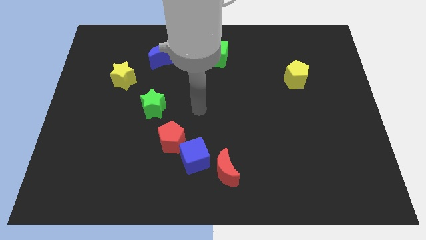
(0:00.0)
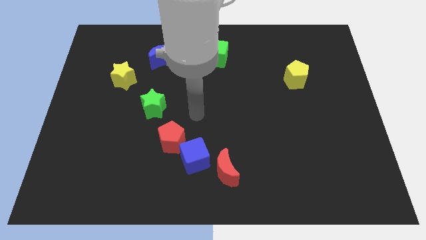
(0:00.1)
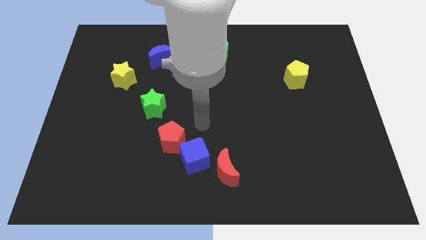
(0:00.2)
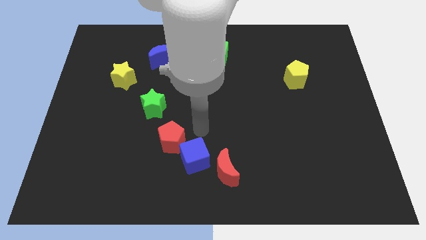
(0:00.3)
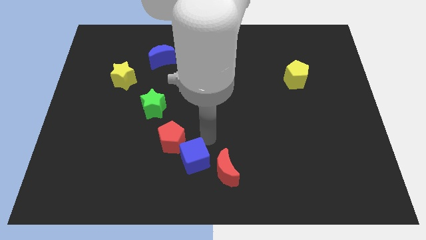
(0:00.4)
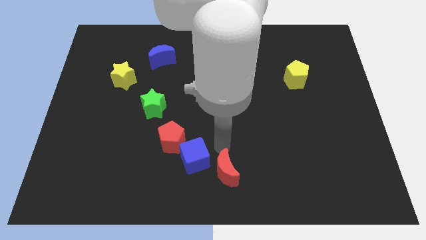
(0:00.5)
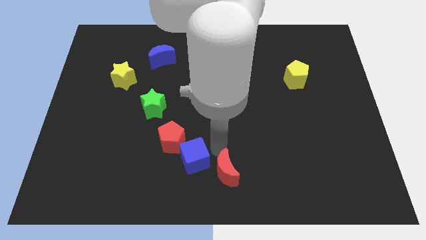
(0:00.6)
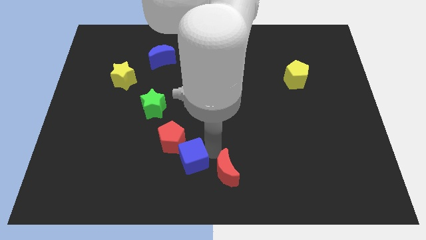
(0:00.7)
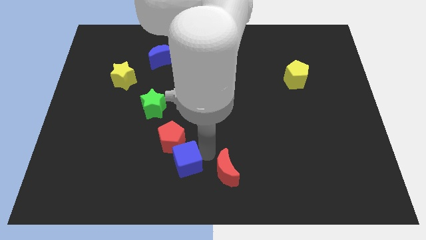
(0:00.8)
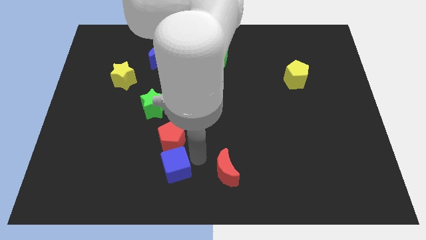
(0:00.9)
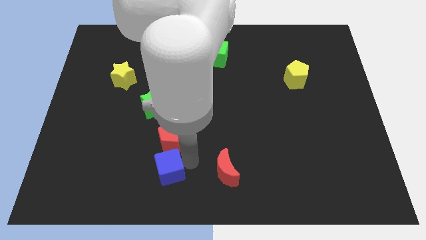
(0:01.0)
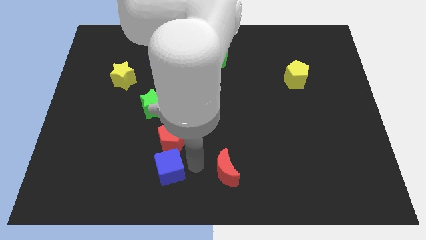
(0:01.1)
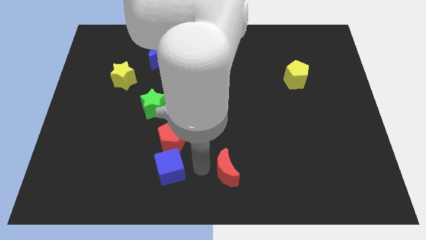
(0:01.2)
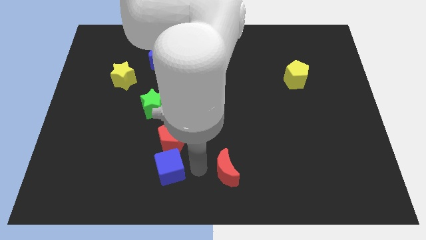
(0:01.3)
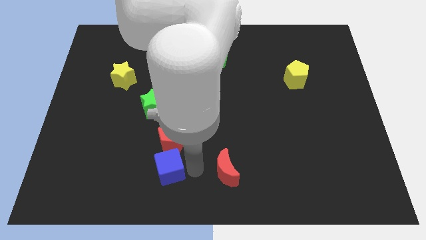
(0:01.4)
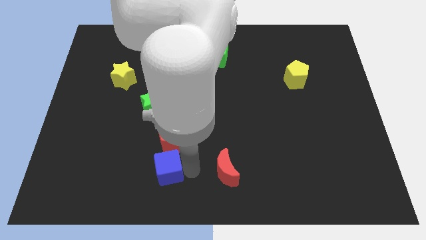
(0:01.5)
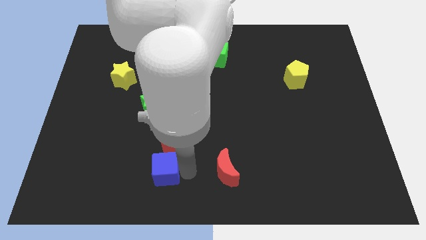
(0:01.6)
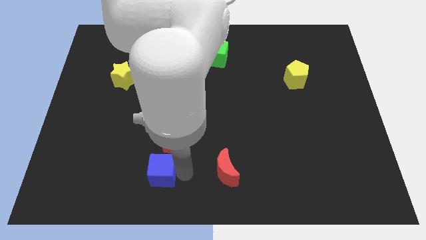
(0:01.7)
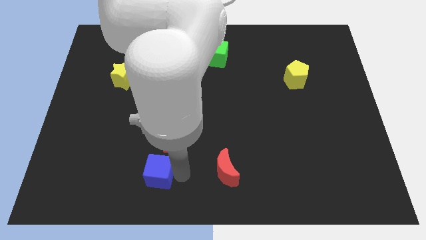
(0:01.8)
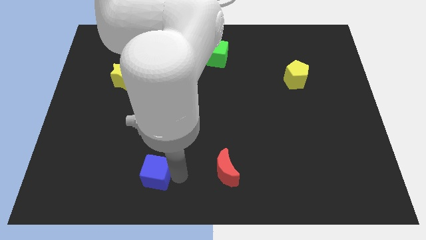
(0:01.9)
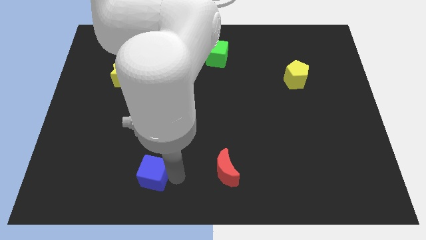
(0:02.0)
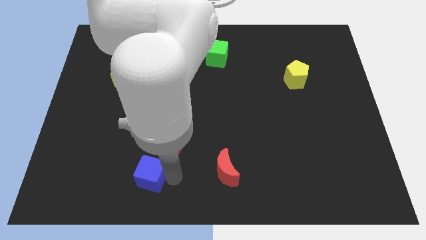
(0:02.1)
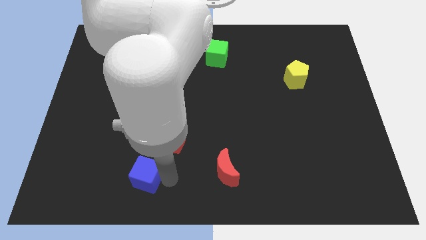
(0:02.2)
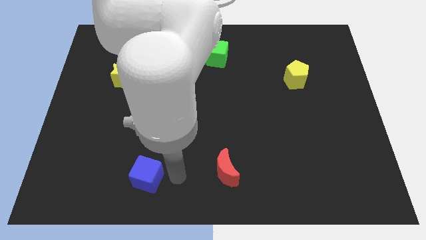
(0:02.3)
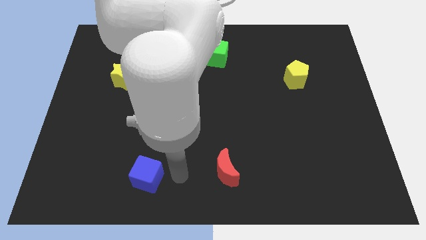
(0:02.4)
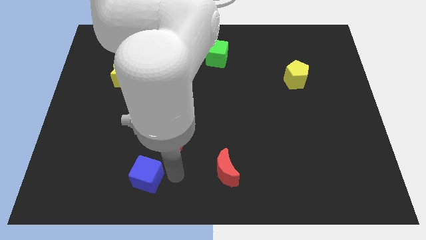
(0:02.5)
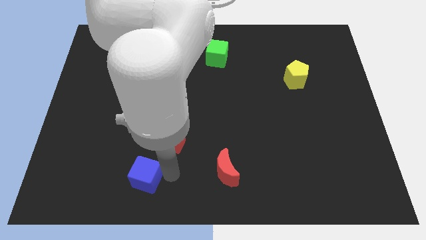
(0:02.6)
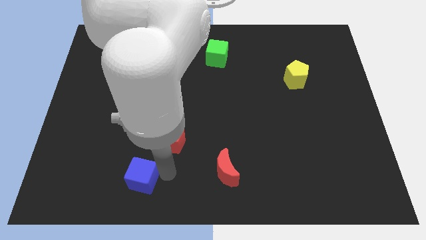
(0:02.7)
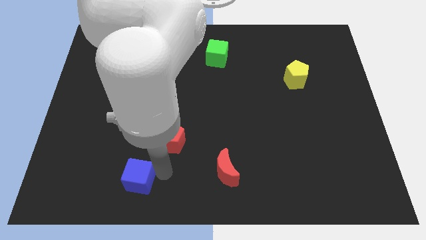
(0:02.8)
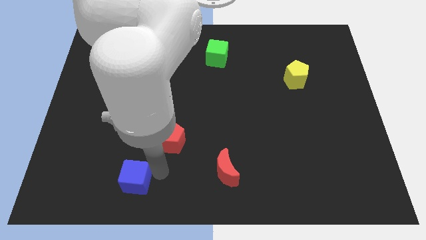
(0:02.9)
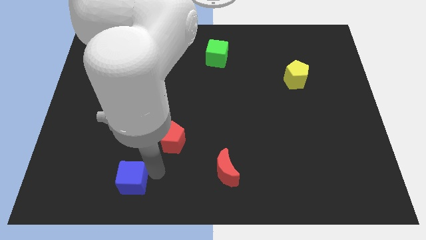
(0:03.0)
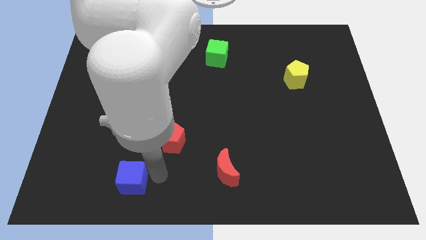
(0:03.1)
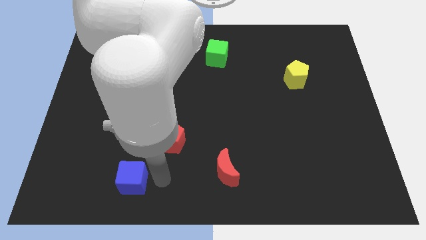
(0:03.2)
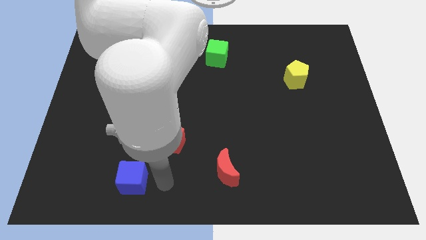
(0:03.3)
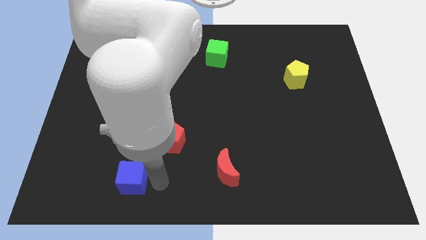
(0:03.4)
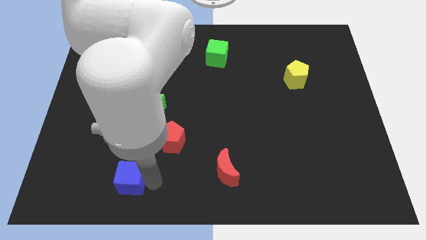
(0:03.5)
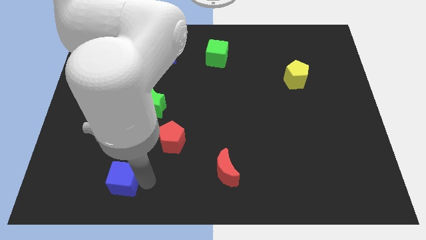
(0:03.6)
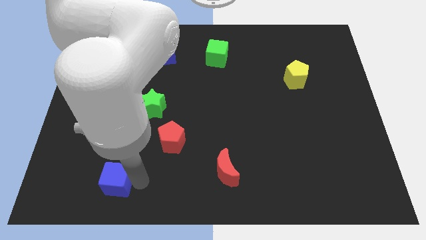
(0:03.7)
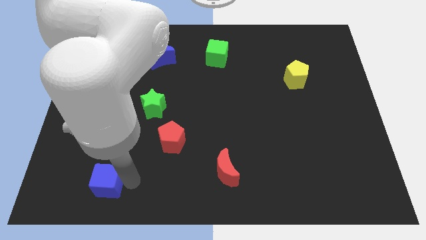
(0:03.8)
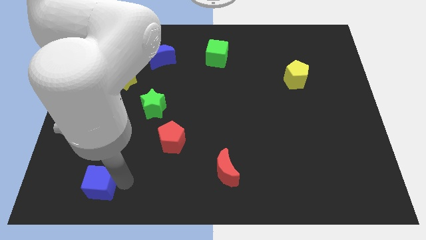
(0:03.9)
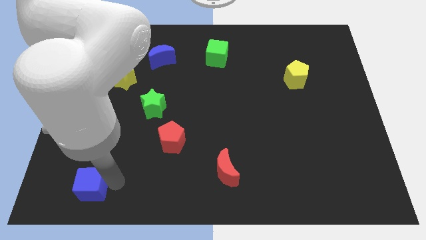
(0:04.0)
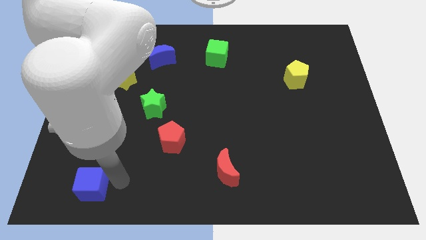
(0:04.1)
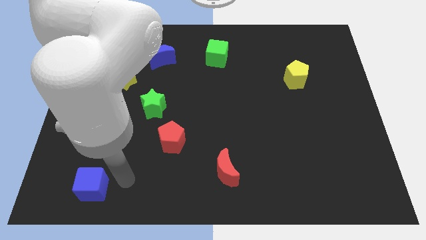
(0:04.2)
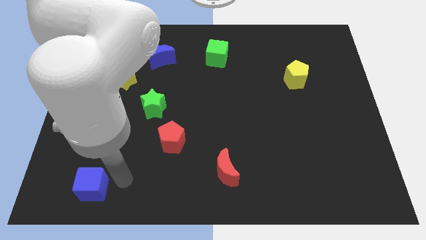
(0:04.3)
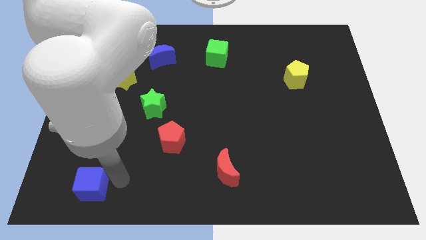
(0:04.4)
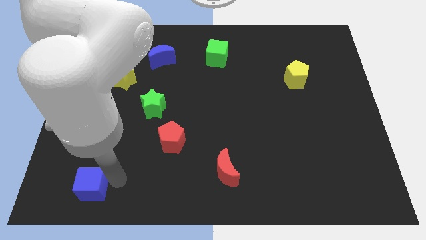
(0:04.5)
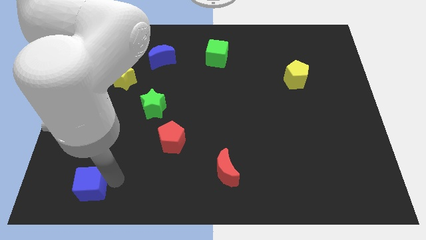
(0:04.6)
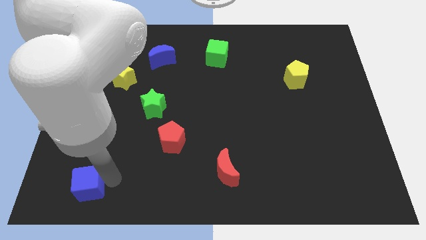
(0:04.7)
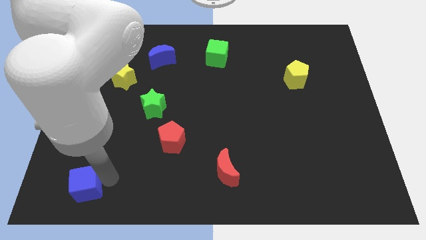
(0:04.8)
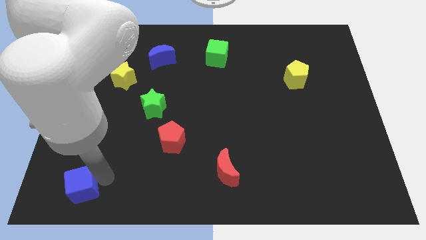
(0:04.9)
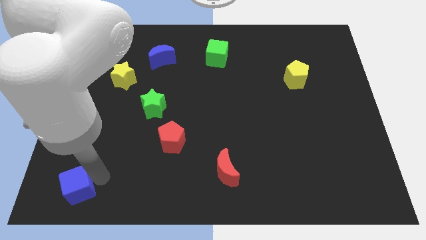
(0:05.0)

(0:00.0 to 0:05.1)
push the blue cube to the bottom left of the board

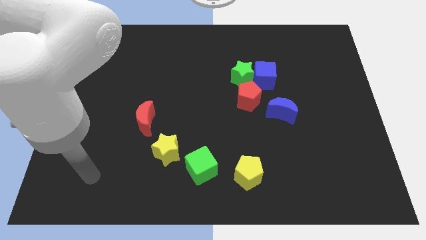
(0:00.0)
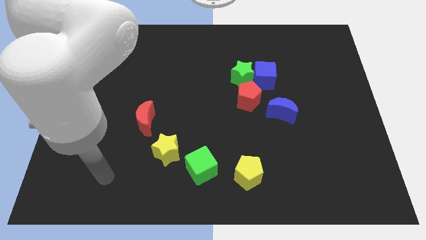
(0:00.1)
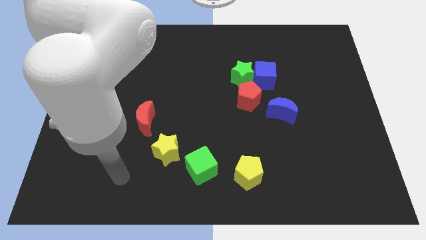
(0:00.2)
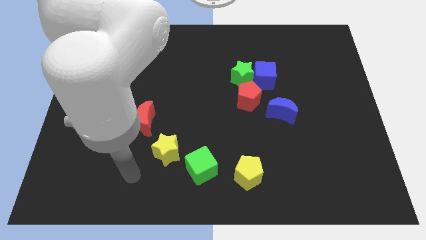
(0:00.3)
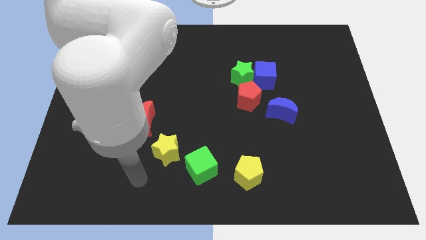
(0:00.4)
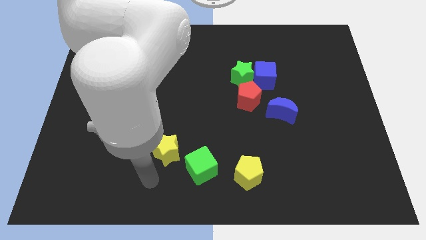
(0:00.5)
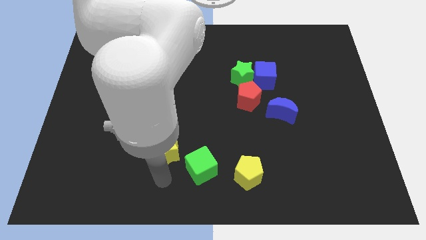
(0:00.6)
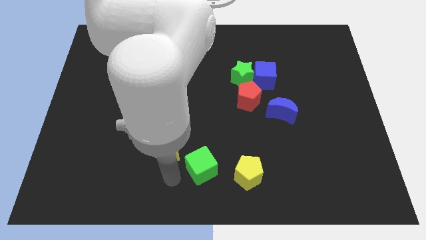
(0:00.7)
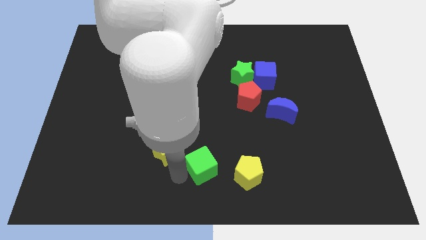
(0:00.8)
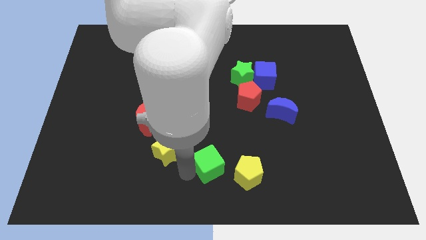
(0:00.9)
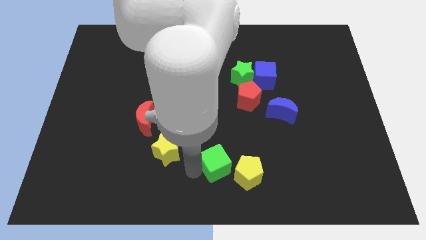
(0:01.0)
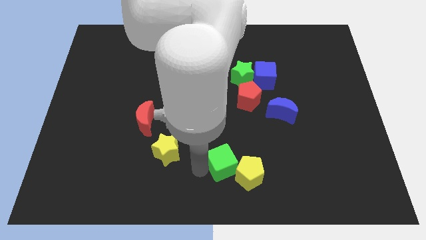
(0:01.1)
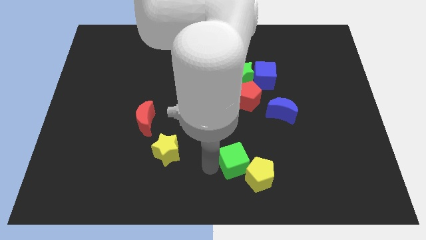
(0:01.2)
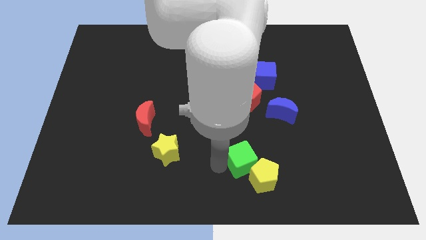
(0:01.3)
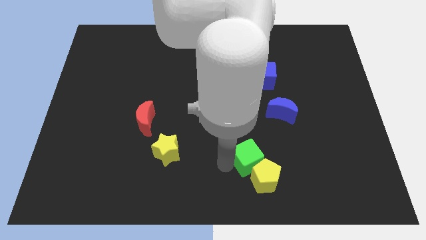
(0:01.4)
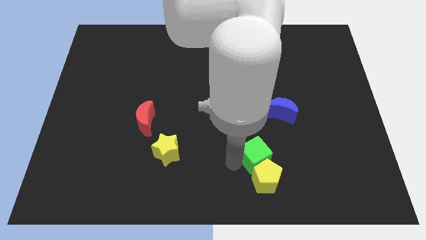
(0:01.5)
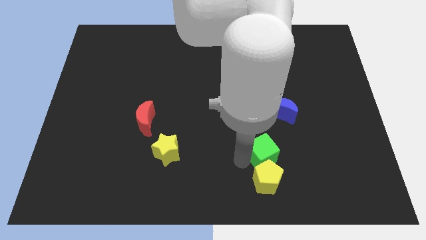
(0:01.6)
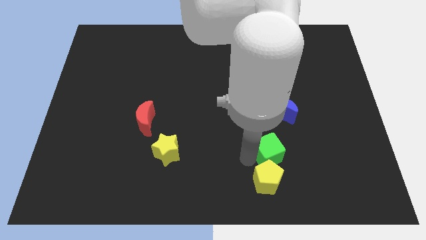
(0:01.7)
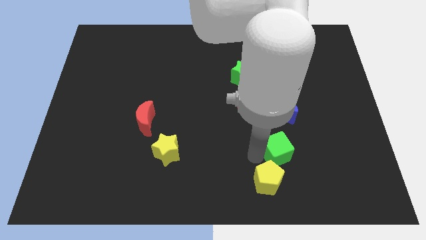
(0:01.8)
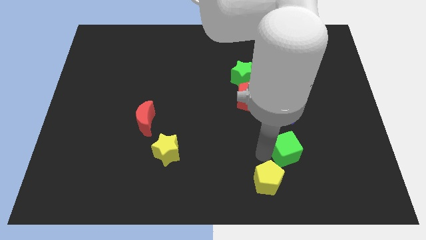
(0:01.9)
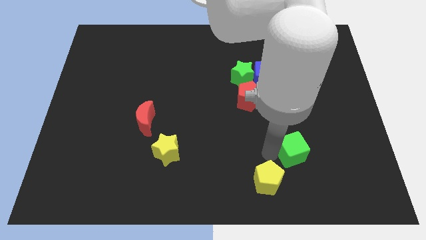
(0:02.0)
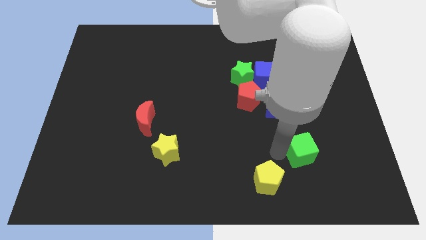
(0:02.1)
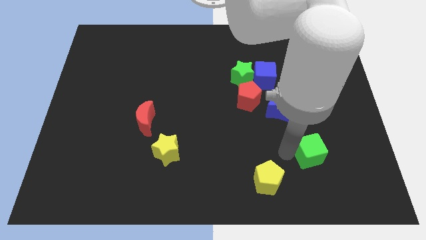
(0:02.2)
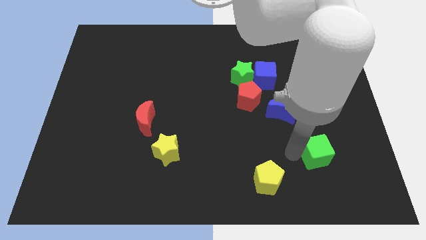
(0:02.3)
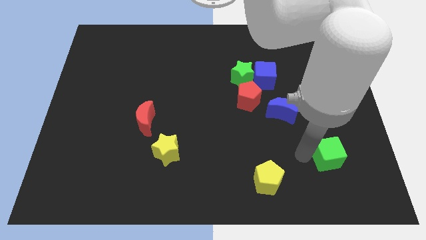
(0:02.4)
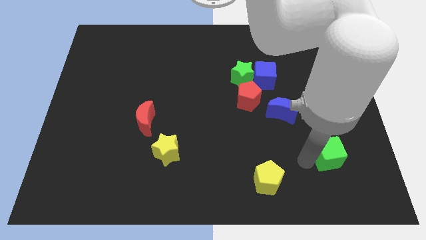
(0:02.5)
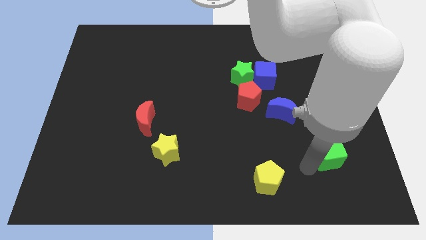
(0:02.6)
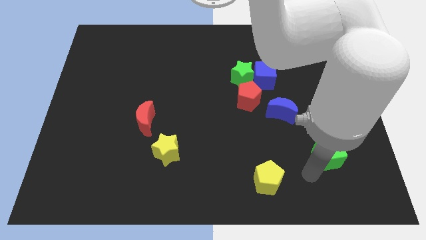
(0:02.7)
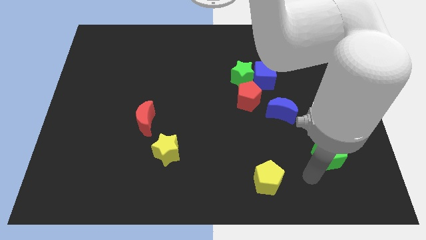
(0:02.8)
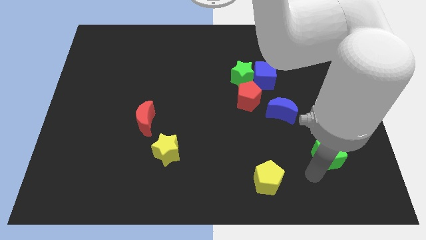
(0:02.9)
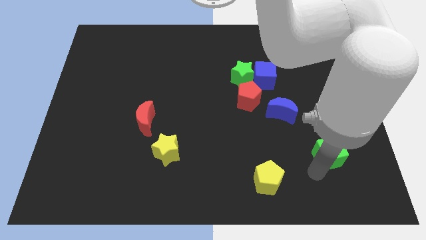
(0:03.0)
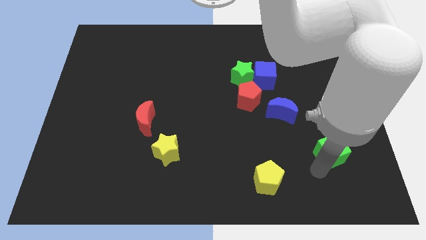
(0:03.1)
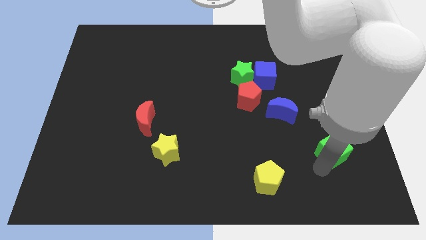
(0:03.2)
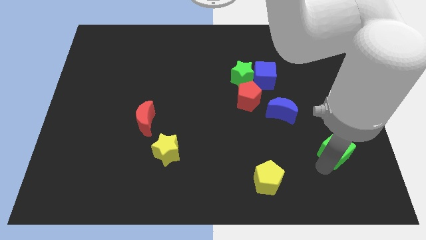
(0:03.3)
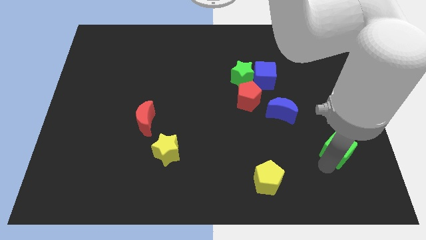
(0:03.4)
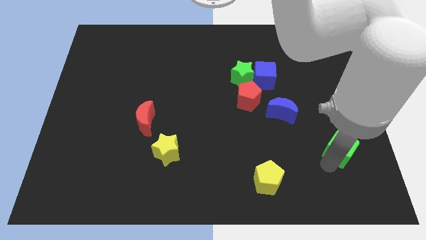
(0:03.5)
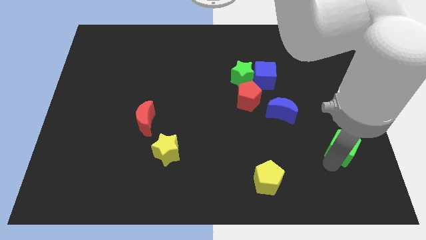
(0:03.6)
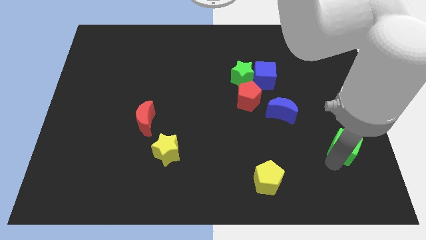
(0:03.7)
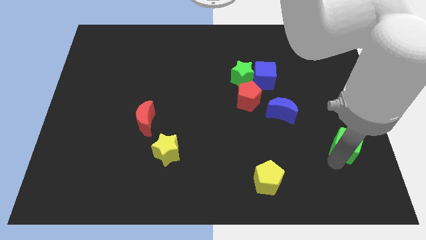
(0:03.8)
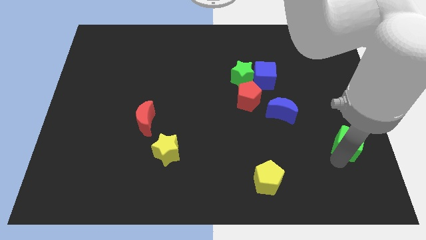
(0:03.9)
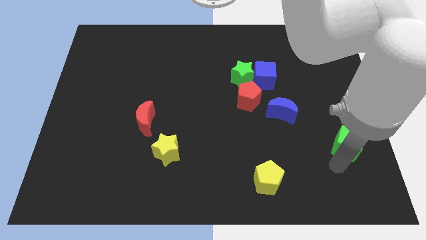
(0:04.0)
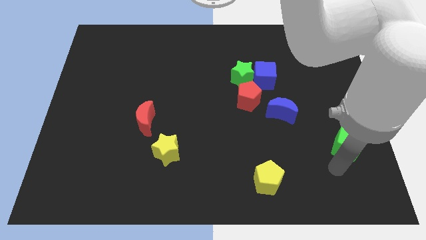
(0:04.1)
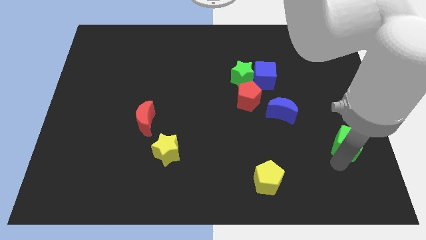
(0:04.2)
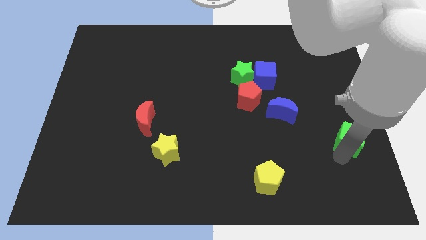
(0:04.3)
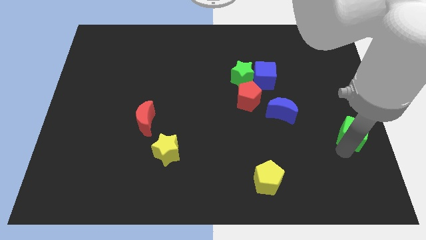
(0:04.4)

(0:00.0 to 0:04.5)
push the green cube to the center right
